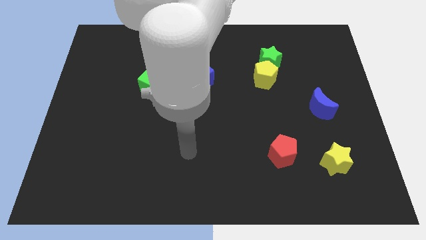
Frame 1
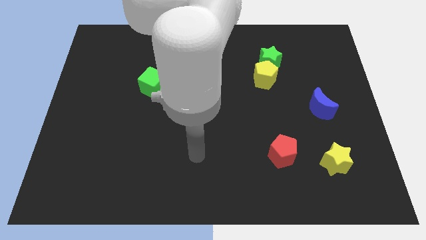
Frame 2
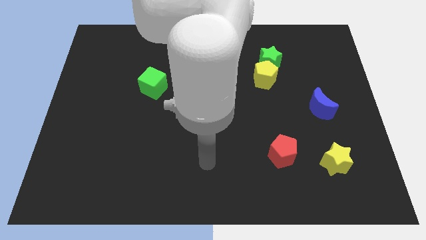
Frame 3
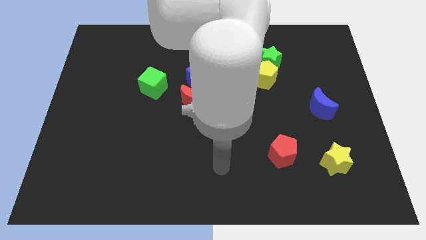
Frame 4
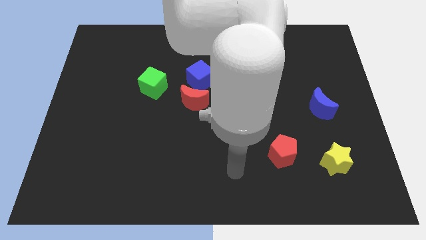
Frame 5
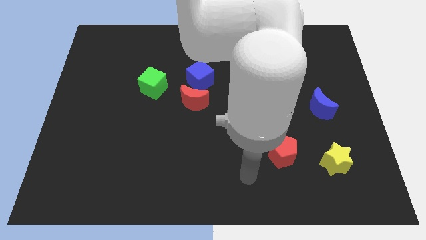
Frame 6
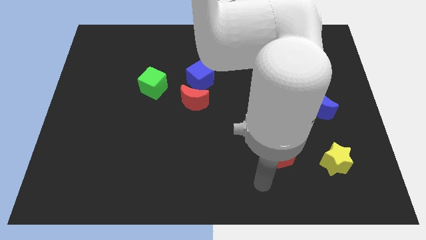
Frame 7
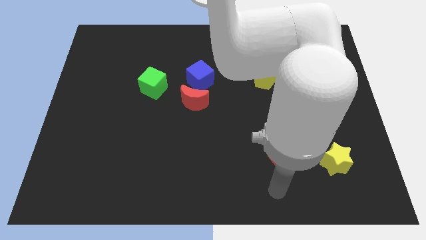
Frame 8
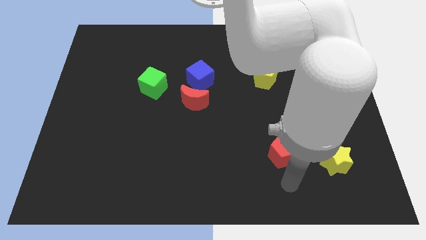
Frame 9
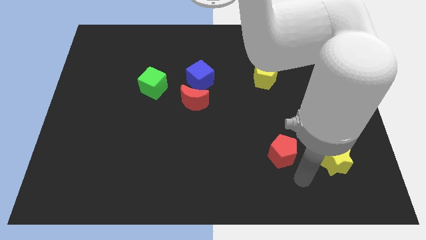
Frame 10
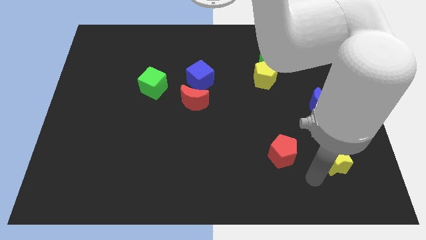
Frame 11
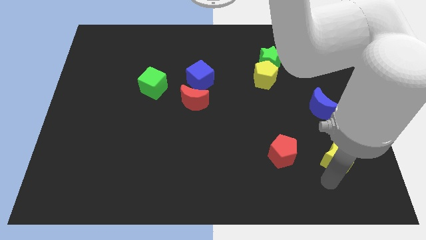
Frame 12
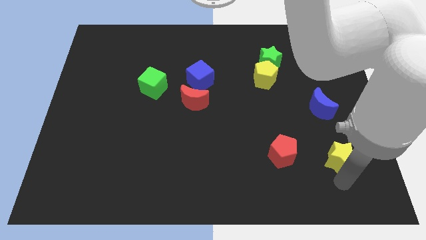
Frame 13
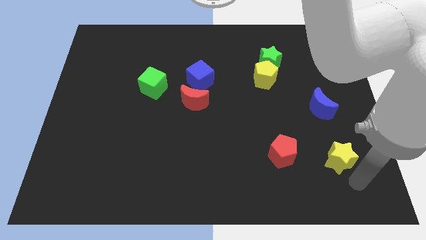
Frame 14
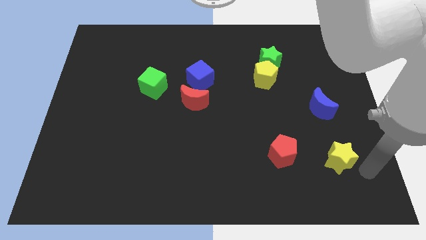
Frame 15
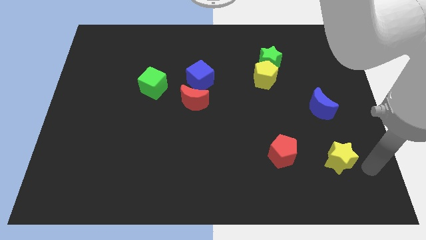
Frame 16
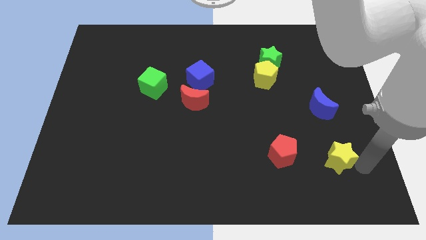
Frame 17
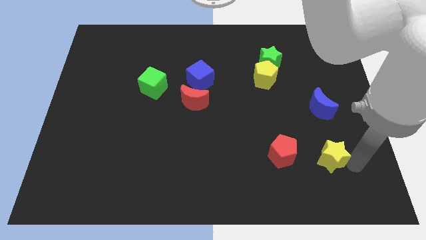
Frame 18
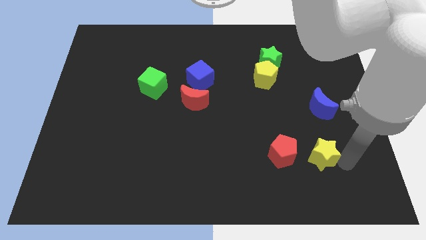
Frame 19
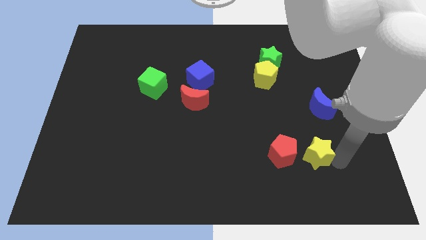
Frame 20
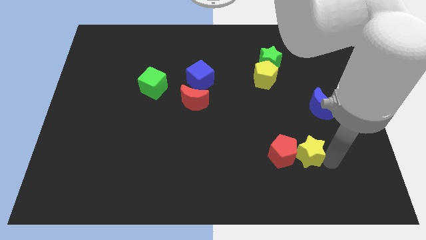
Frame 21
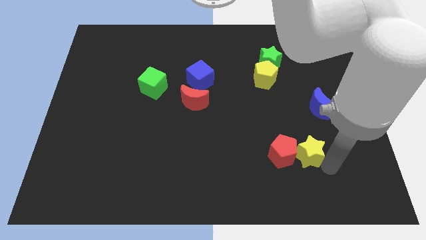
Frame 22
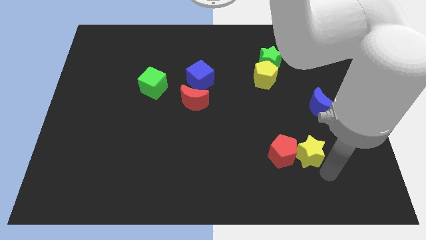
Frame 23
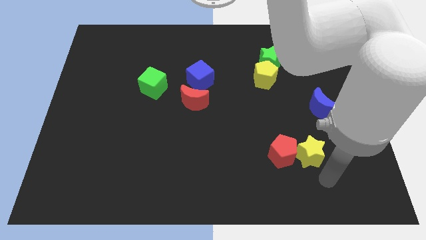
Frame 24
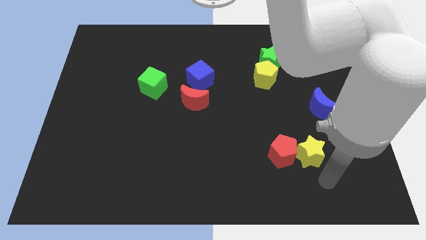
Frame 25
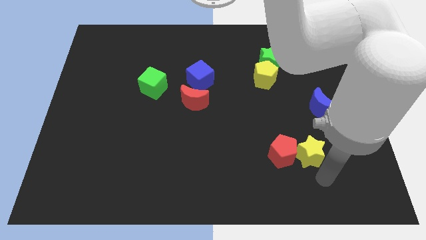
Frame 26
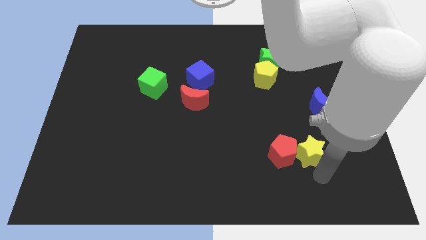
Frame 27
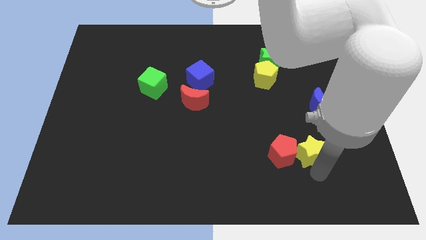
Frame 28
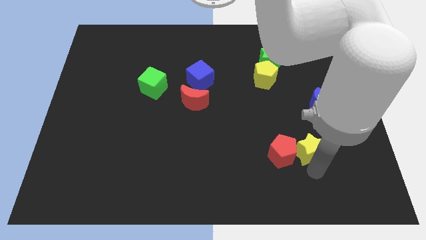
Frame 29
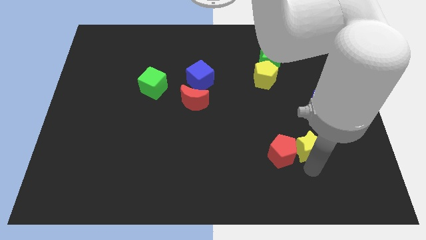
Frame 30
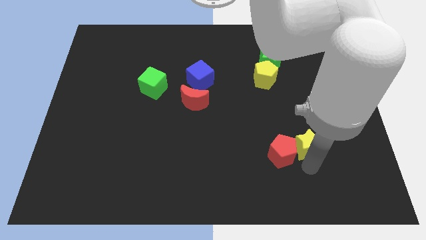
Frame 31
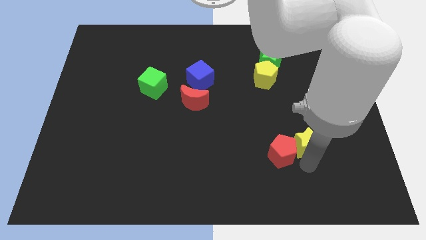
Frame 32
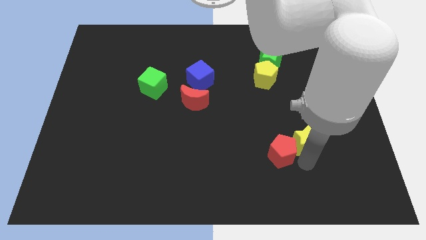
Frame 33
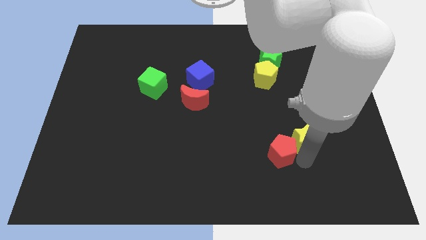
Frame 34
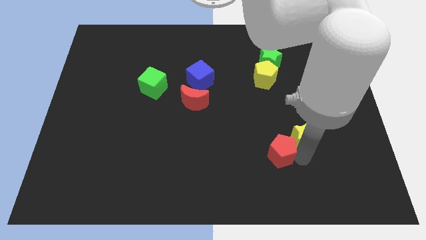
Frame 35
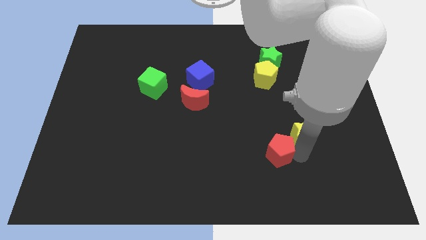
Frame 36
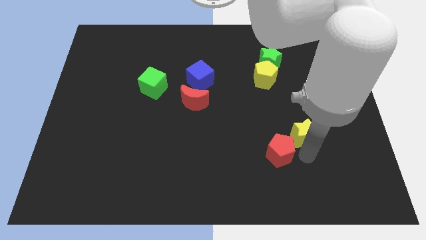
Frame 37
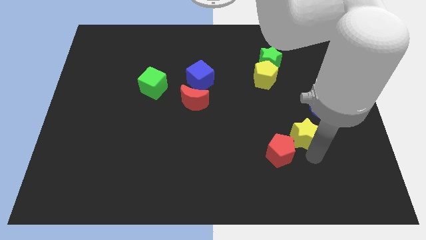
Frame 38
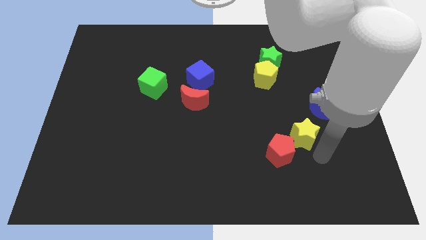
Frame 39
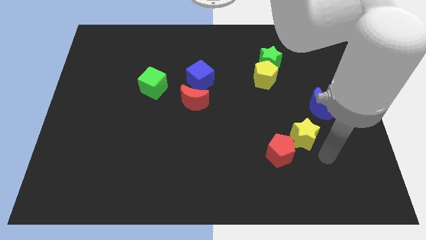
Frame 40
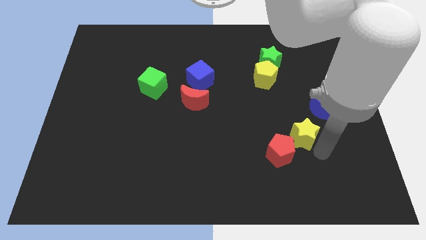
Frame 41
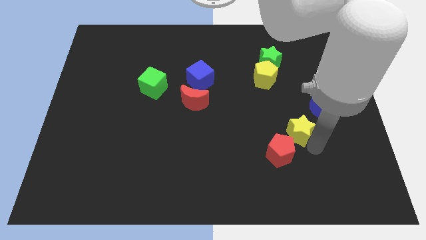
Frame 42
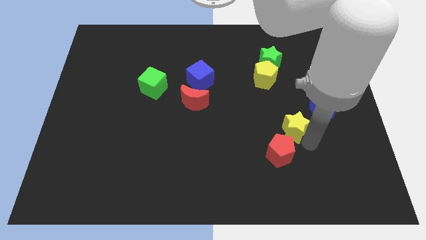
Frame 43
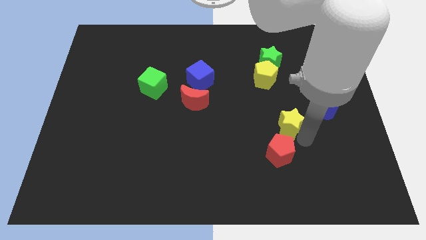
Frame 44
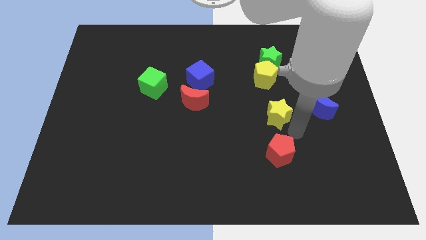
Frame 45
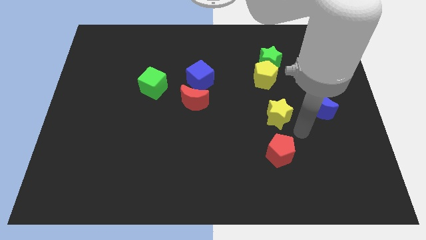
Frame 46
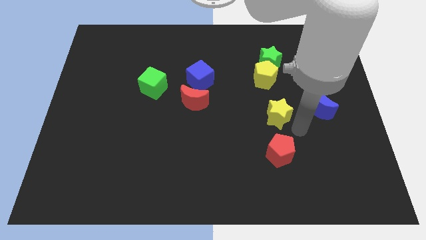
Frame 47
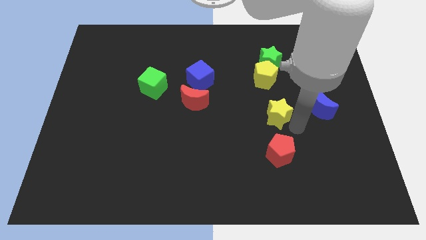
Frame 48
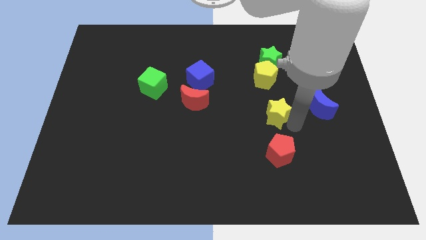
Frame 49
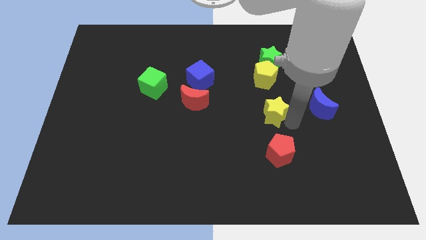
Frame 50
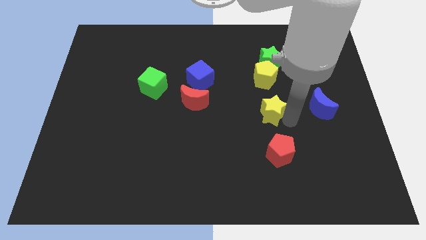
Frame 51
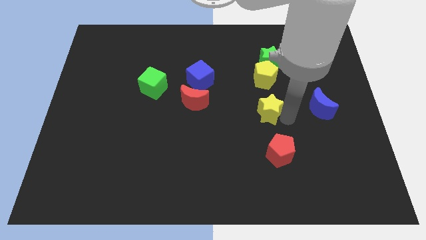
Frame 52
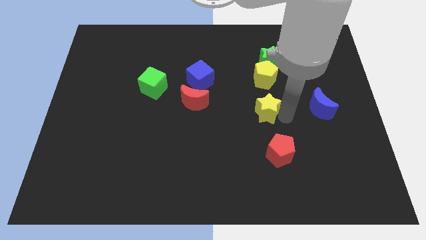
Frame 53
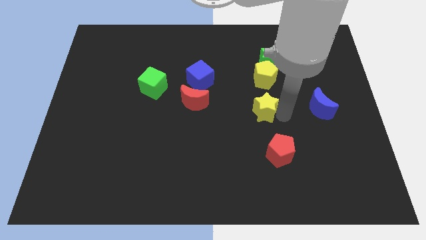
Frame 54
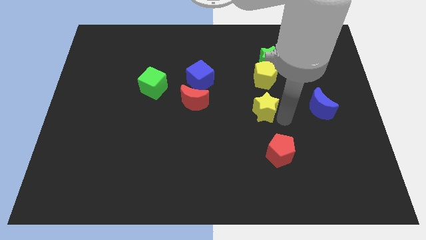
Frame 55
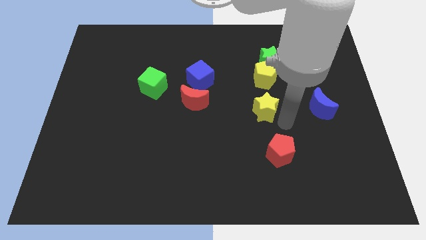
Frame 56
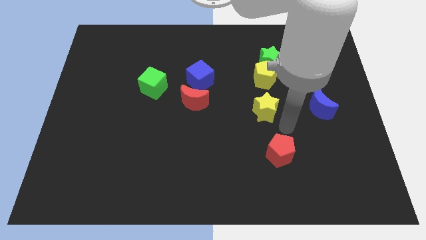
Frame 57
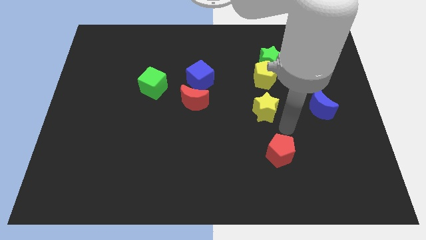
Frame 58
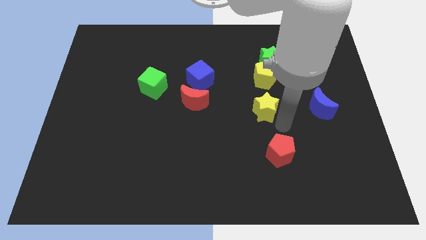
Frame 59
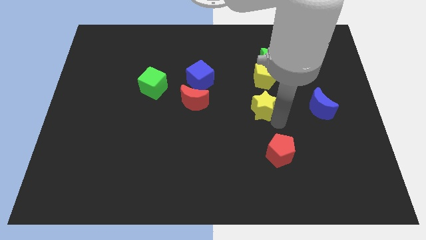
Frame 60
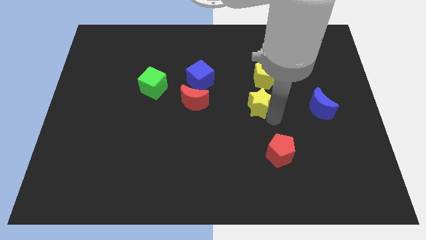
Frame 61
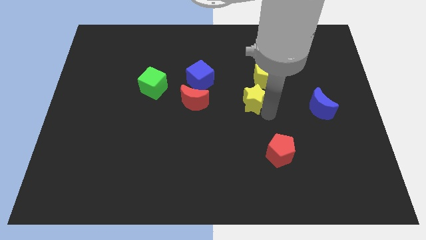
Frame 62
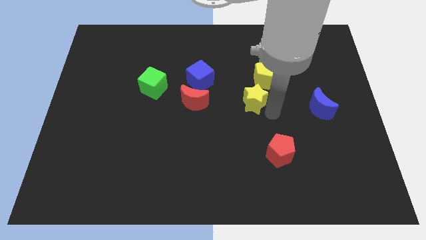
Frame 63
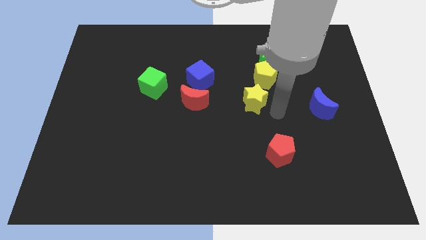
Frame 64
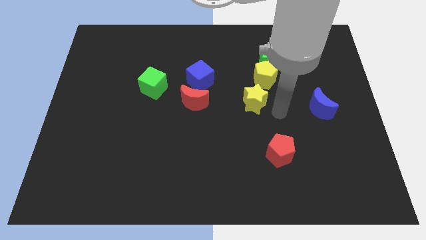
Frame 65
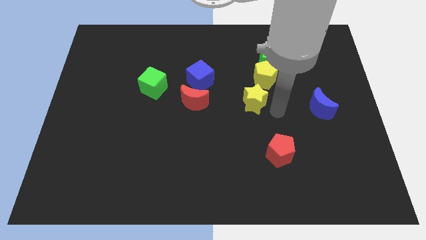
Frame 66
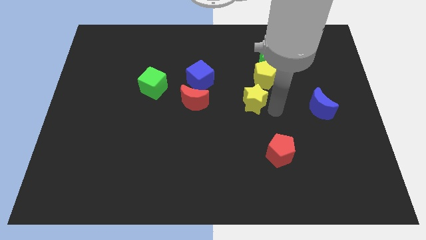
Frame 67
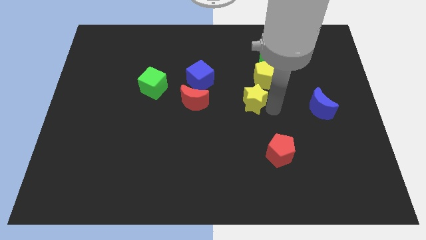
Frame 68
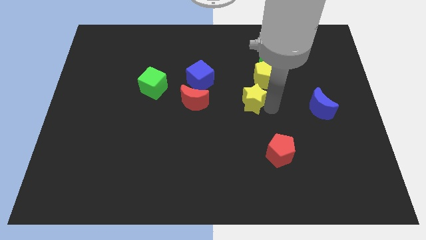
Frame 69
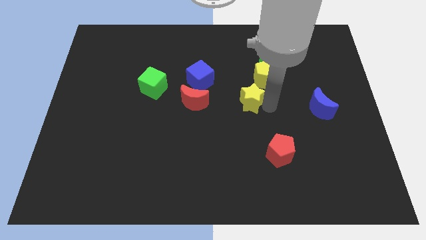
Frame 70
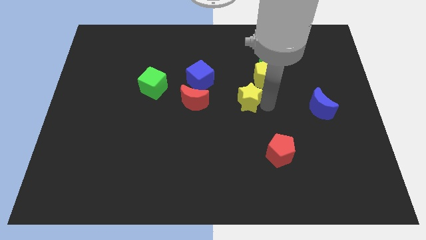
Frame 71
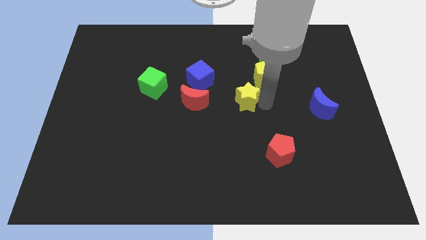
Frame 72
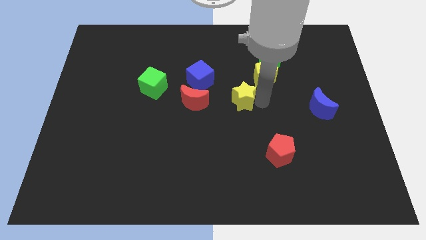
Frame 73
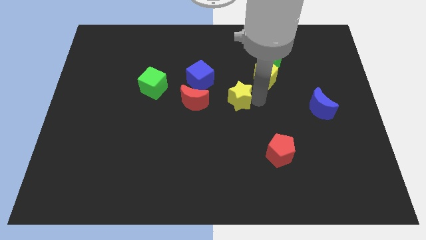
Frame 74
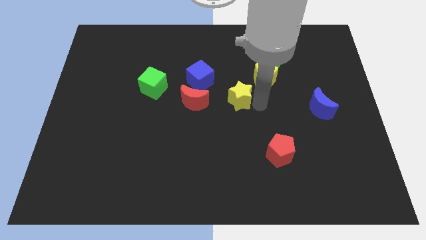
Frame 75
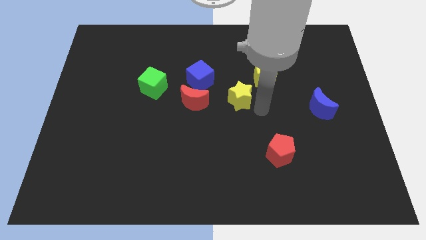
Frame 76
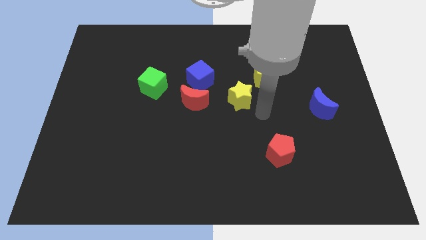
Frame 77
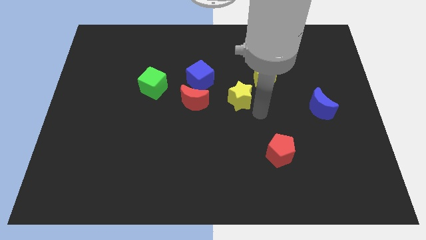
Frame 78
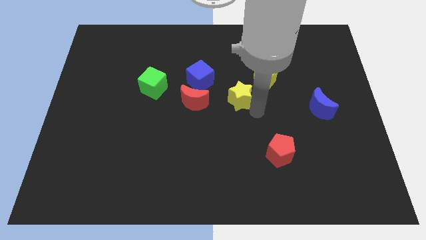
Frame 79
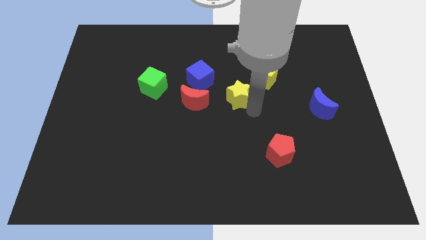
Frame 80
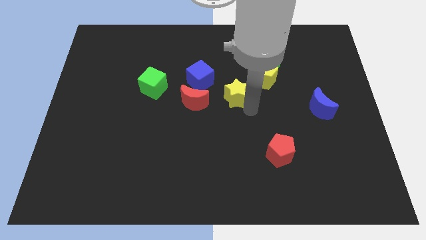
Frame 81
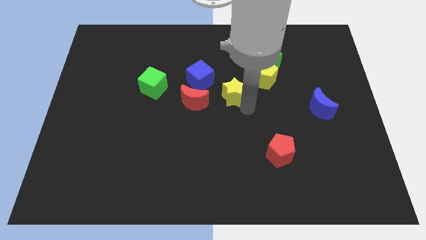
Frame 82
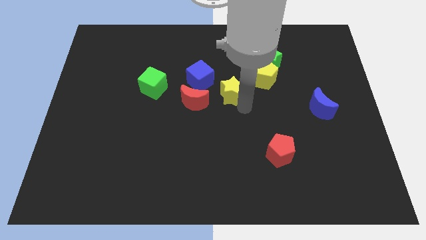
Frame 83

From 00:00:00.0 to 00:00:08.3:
move the yellow star diagonally up and to the right of the red moon
